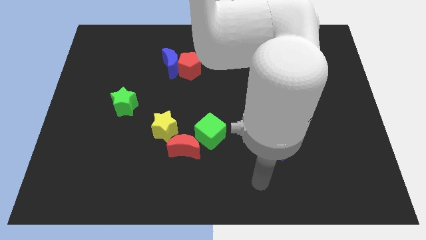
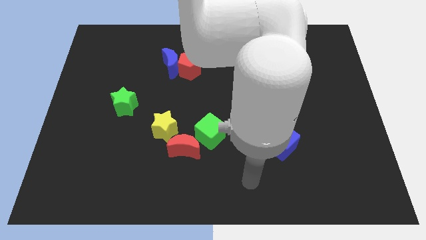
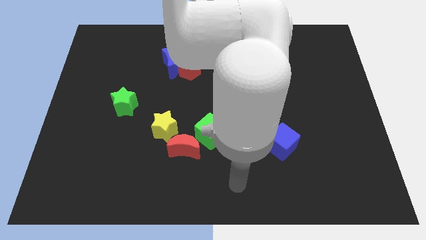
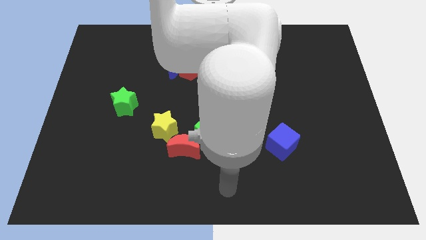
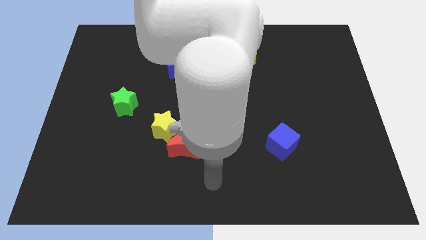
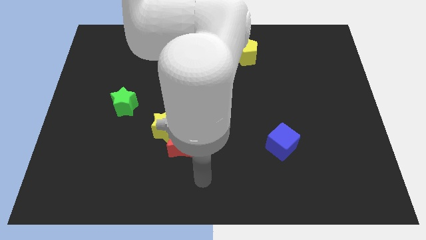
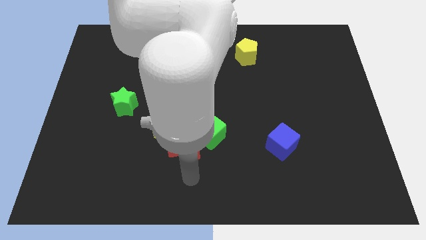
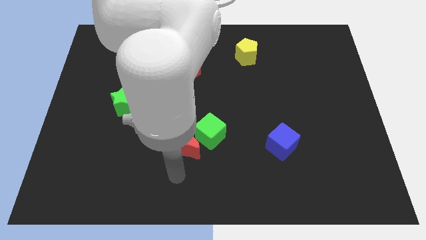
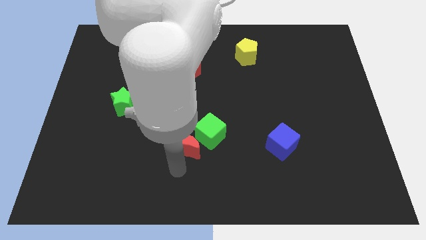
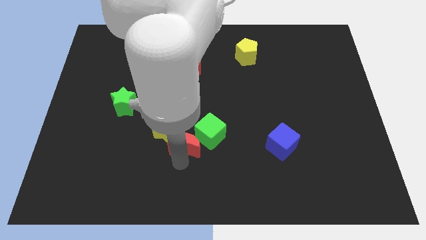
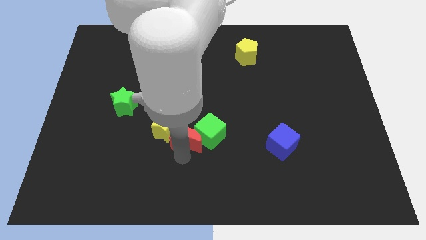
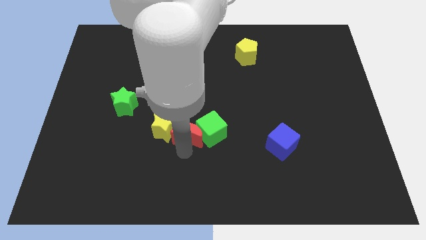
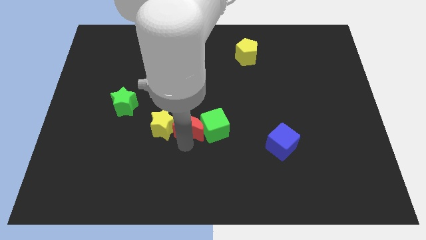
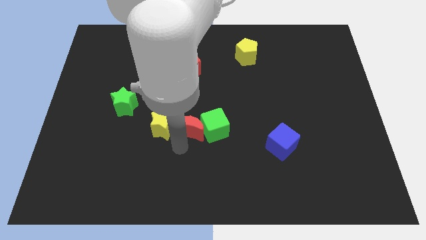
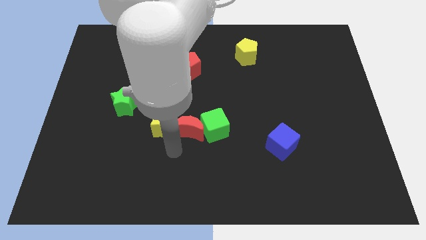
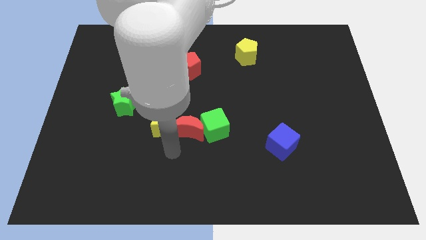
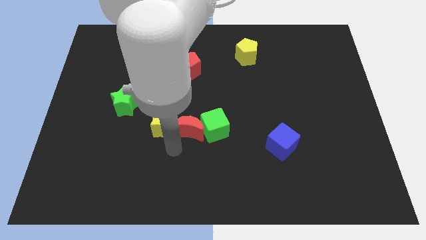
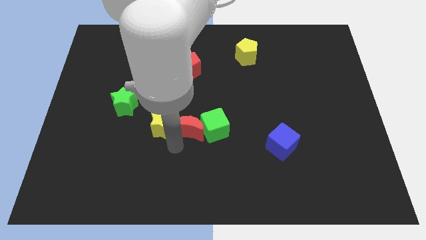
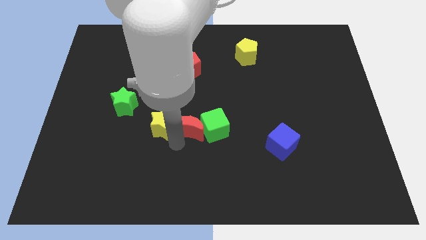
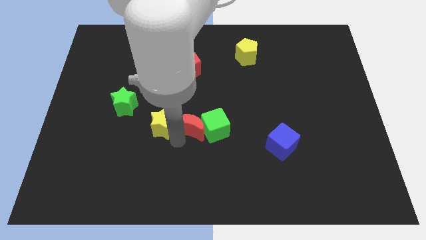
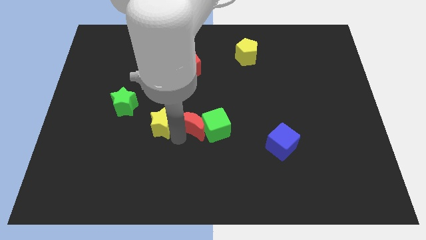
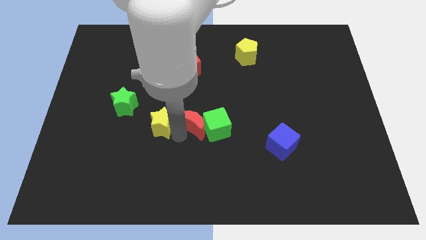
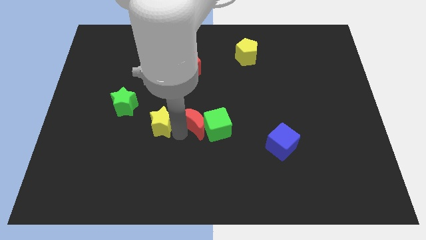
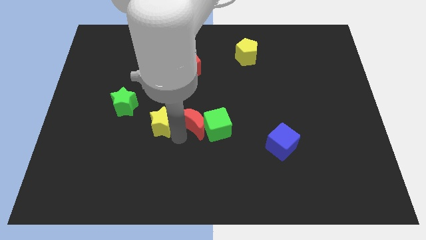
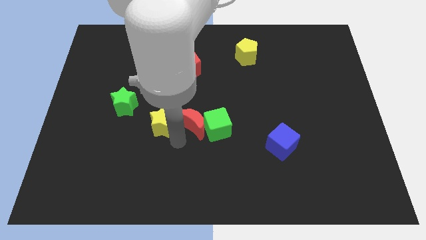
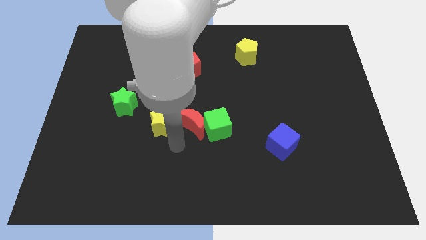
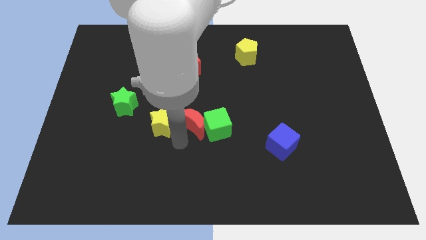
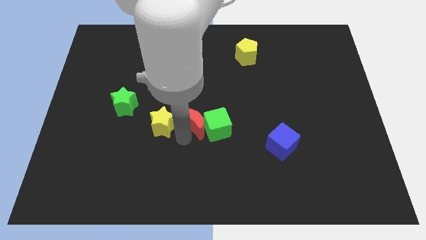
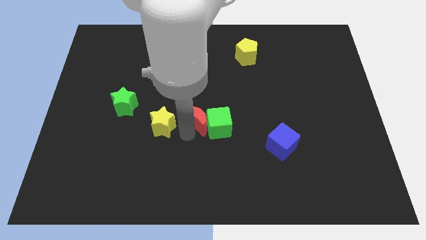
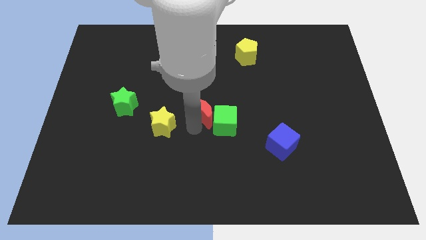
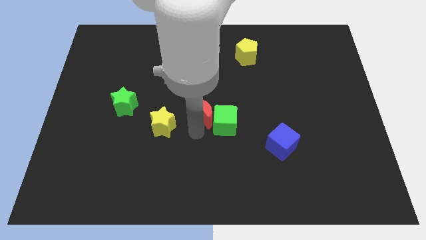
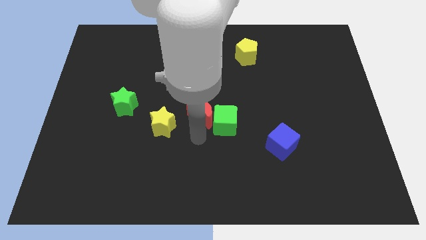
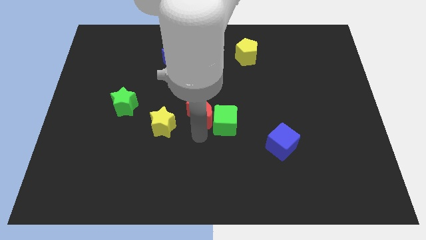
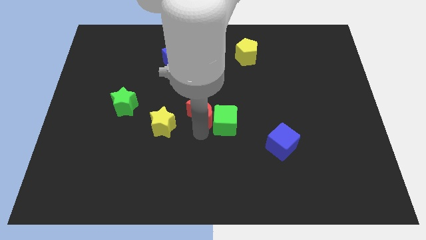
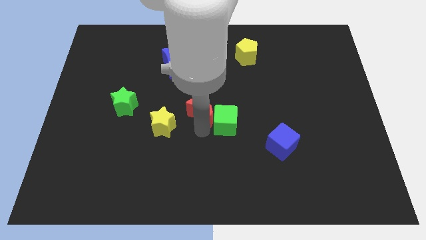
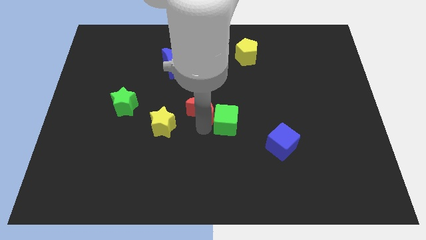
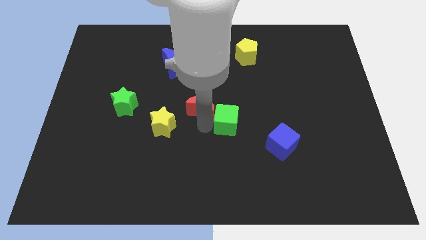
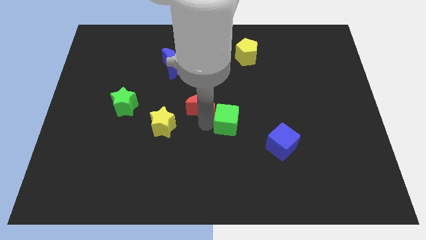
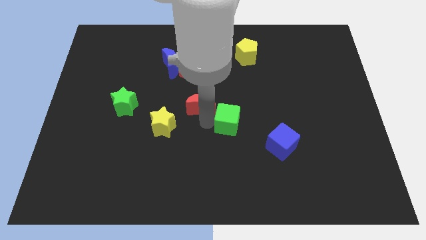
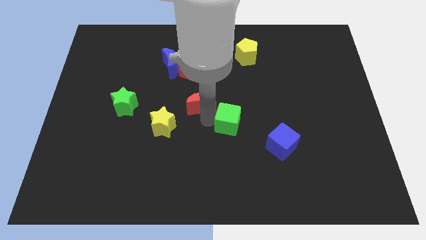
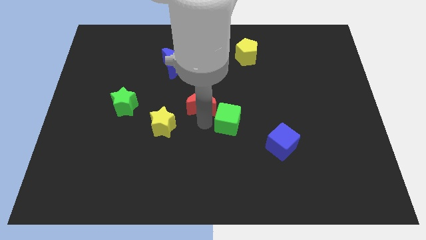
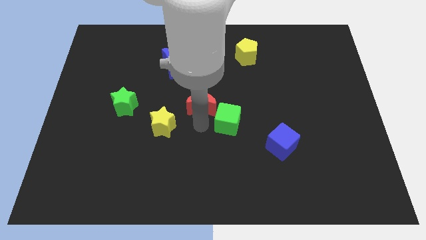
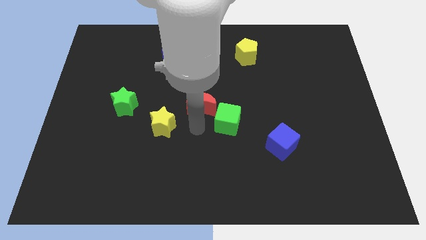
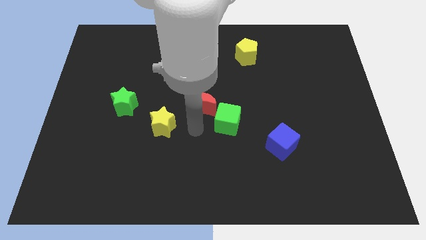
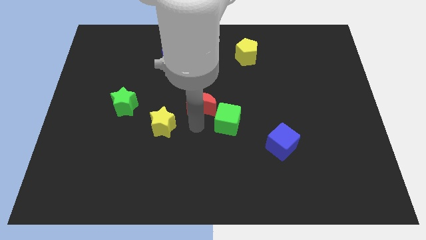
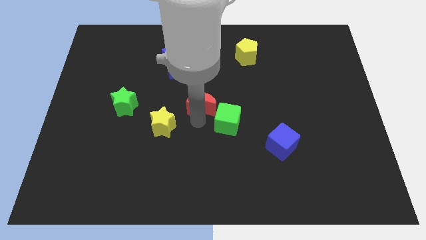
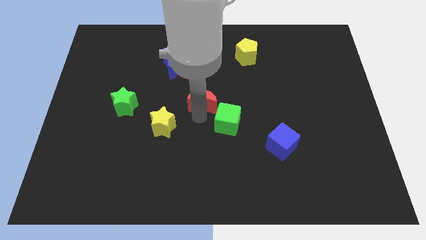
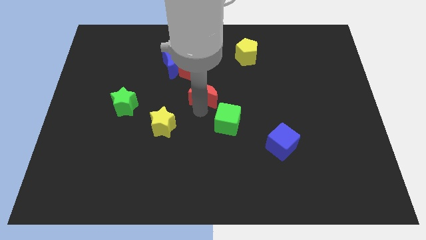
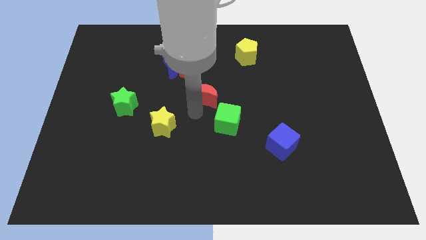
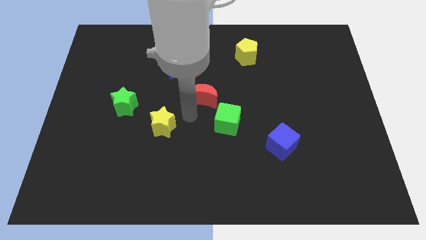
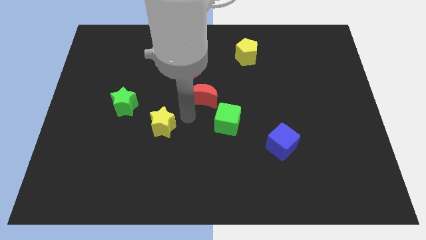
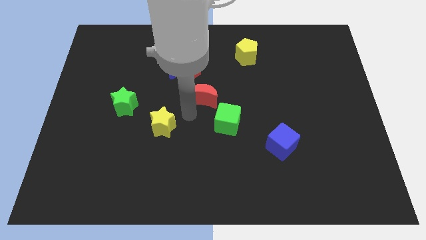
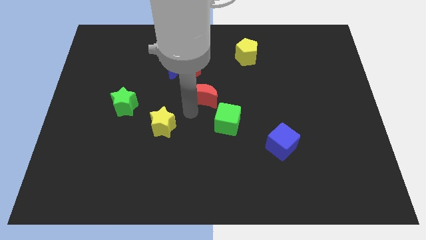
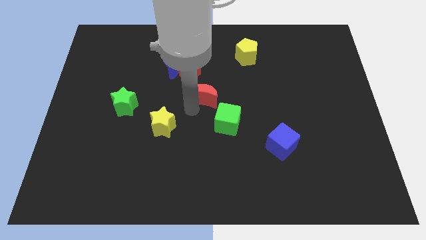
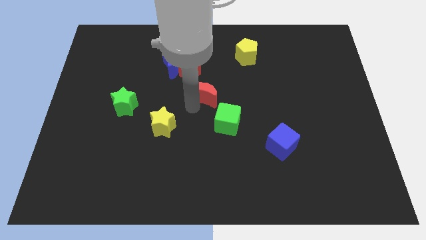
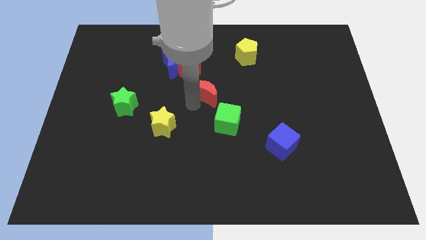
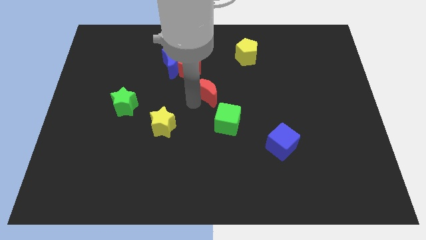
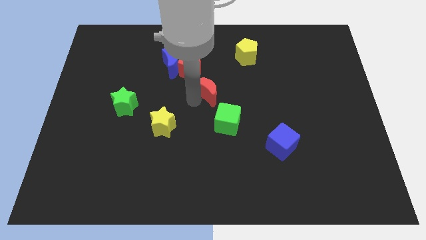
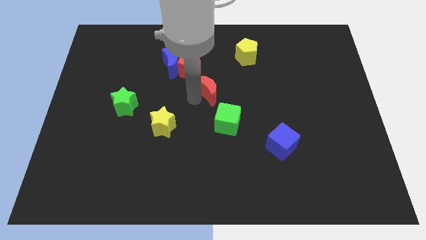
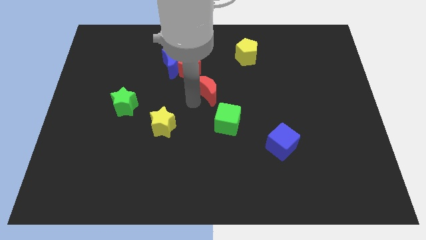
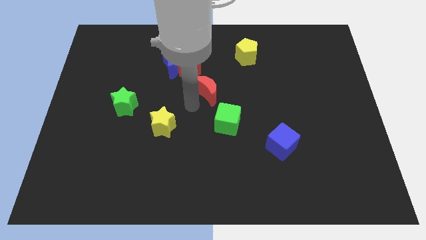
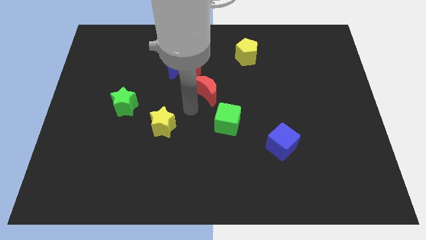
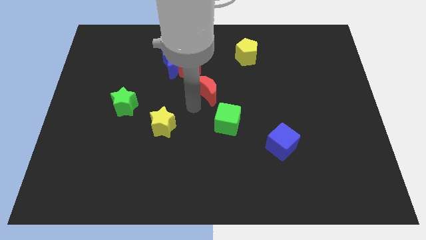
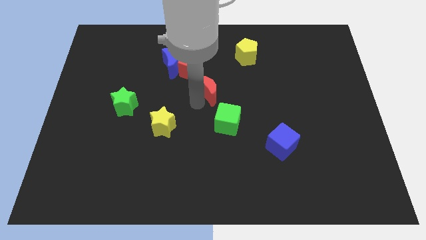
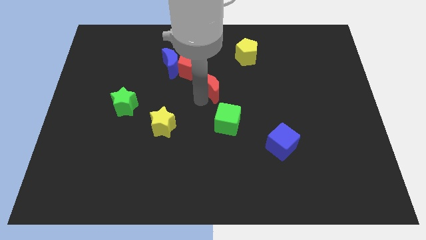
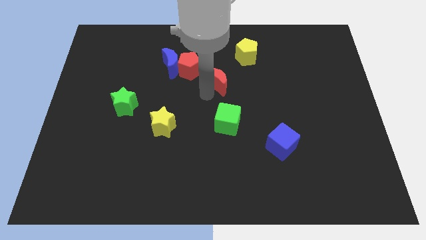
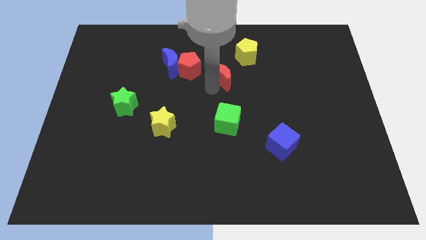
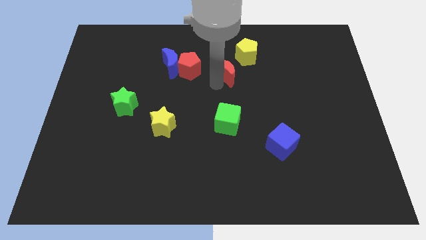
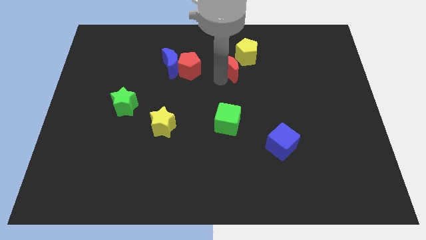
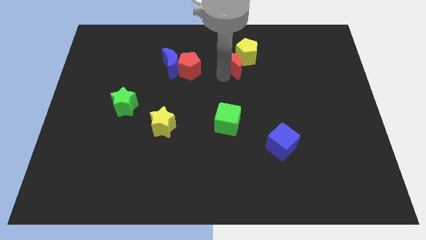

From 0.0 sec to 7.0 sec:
slide the red moon to the yellow pentagon
